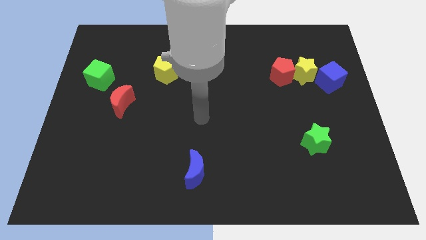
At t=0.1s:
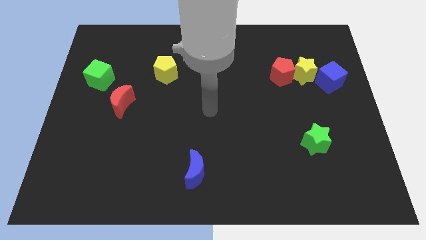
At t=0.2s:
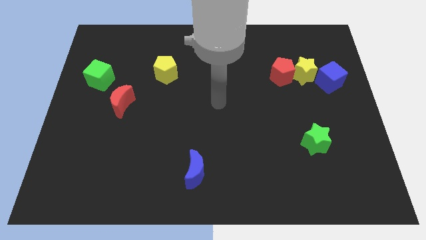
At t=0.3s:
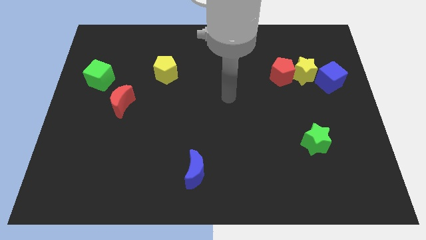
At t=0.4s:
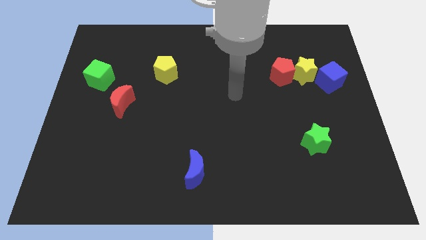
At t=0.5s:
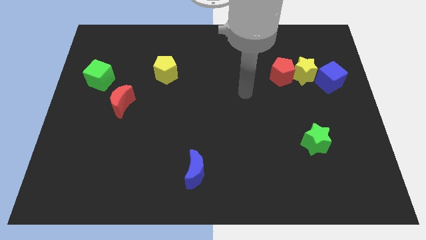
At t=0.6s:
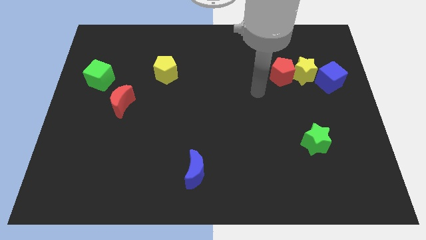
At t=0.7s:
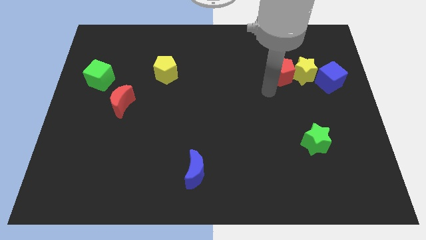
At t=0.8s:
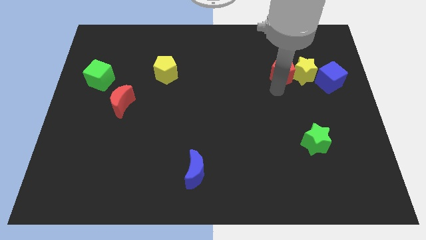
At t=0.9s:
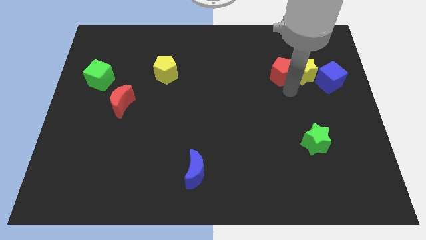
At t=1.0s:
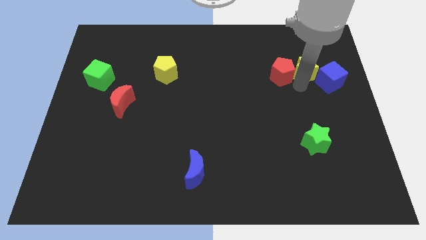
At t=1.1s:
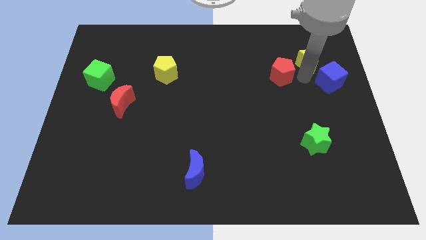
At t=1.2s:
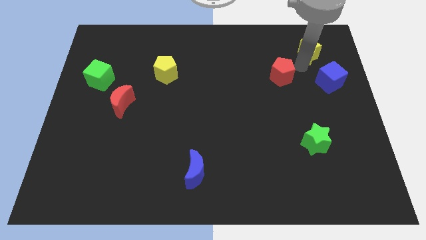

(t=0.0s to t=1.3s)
separate the red pentagon from the yellow star

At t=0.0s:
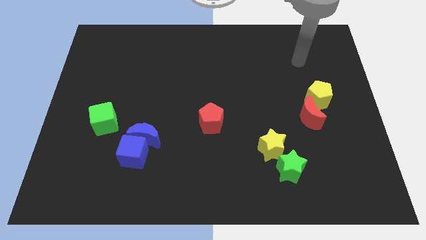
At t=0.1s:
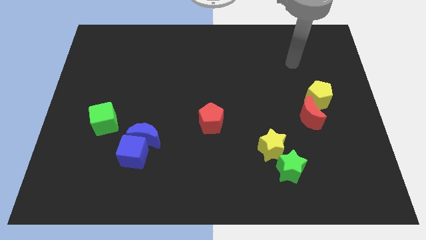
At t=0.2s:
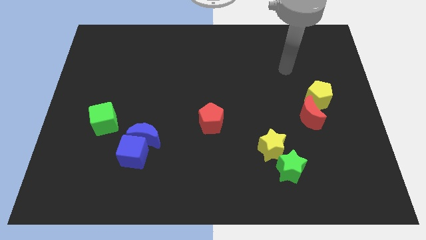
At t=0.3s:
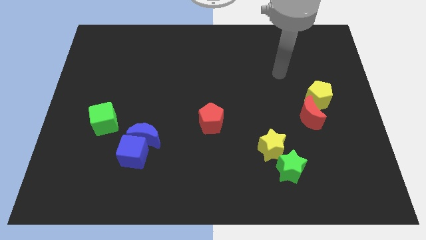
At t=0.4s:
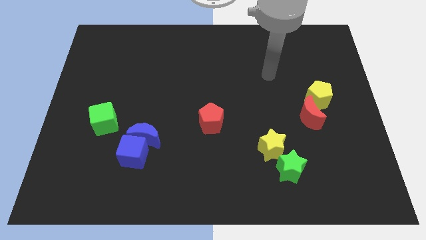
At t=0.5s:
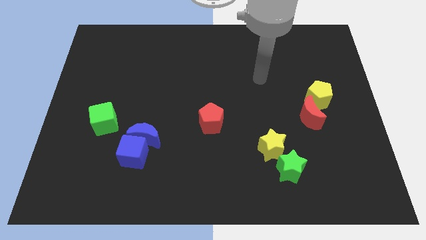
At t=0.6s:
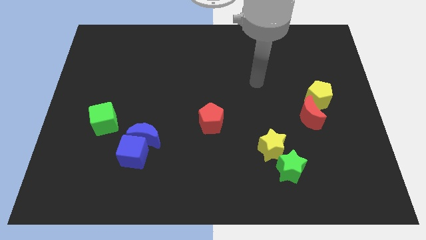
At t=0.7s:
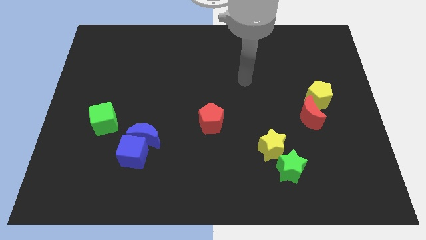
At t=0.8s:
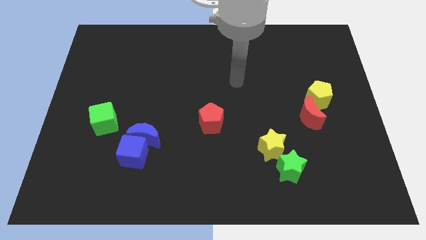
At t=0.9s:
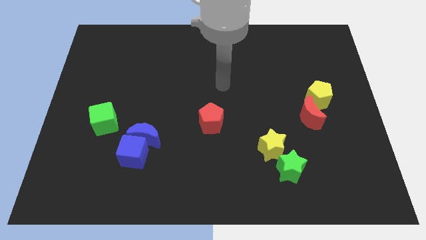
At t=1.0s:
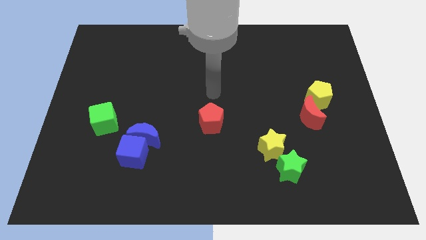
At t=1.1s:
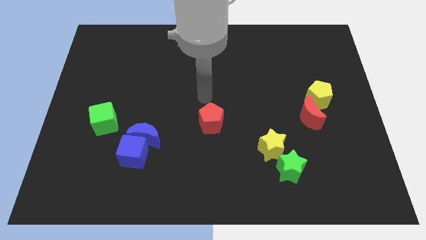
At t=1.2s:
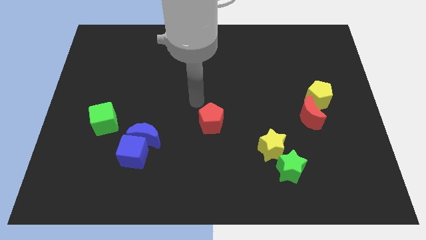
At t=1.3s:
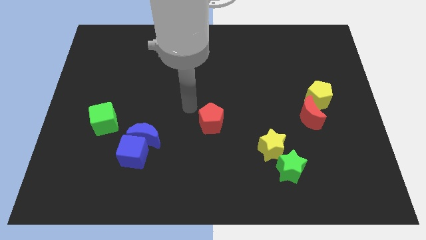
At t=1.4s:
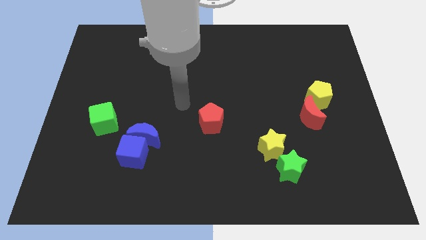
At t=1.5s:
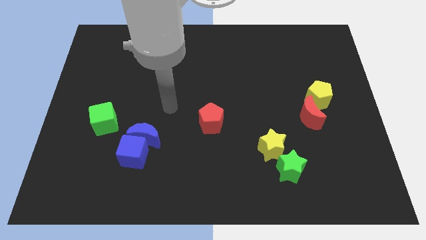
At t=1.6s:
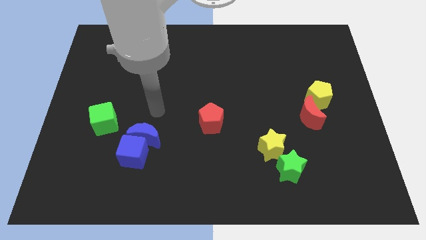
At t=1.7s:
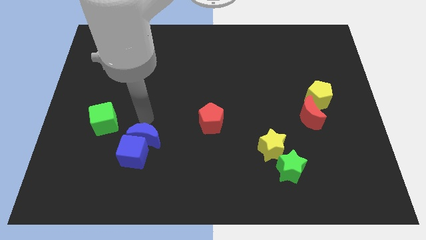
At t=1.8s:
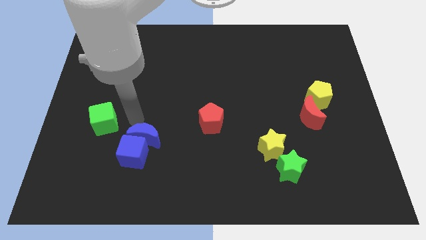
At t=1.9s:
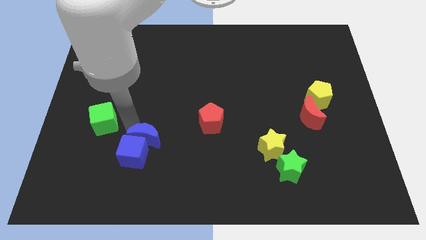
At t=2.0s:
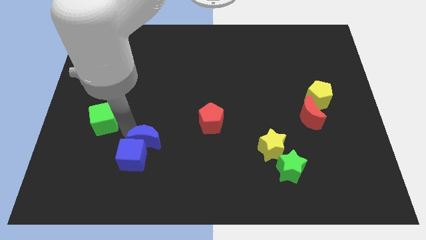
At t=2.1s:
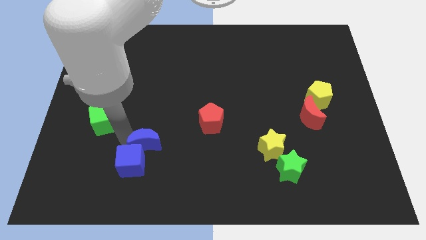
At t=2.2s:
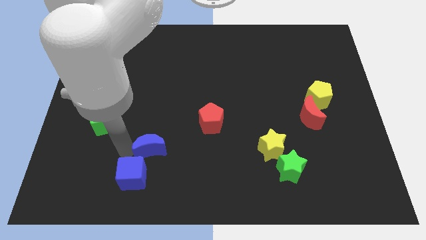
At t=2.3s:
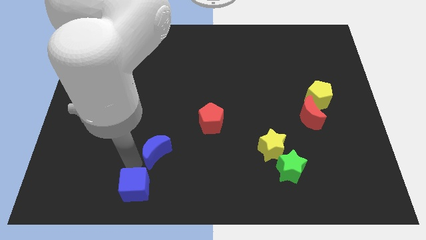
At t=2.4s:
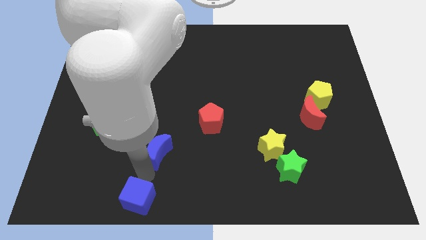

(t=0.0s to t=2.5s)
pull the blue moon apart from the blue cube

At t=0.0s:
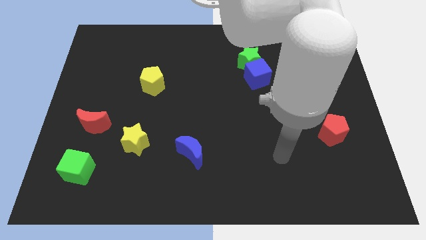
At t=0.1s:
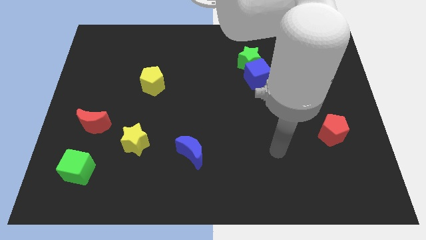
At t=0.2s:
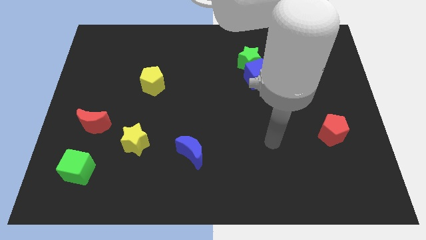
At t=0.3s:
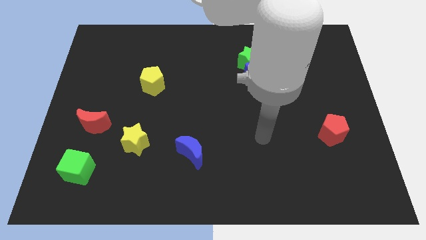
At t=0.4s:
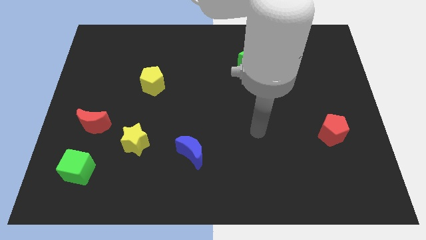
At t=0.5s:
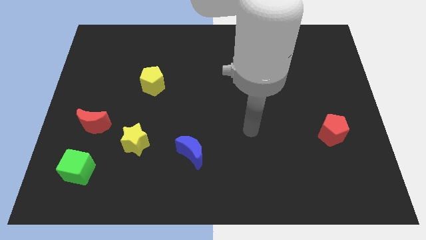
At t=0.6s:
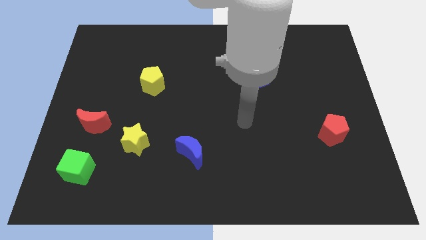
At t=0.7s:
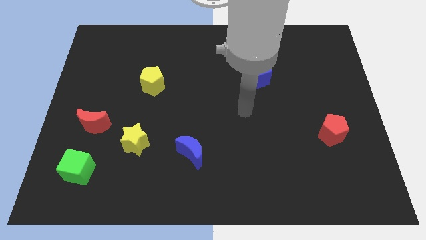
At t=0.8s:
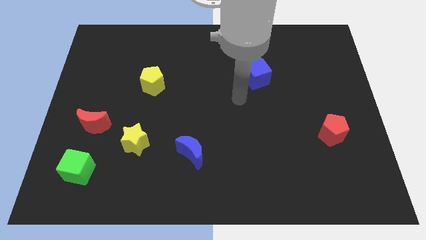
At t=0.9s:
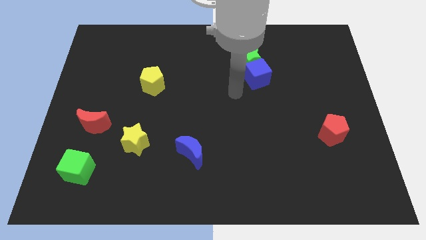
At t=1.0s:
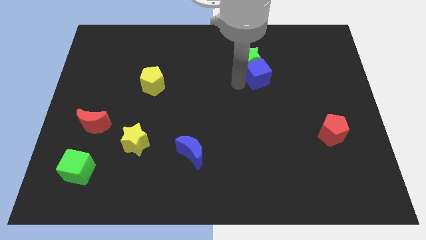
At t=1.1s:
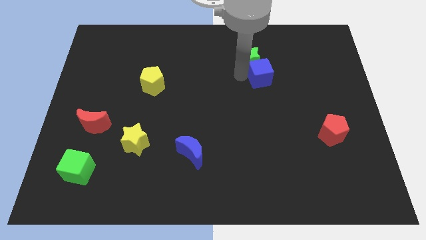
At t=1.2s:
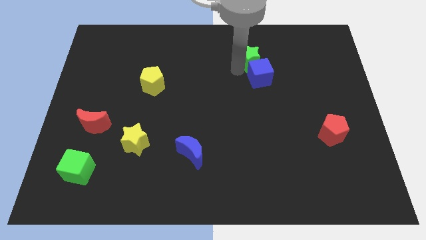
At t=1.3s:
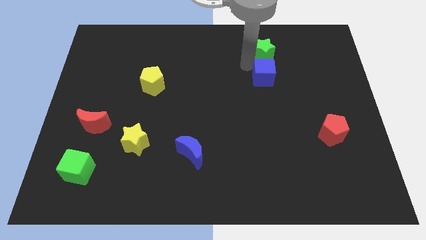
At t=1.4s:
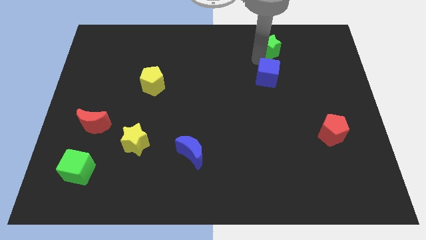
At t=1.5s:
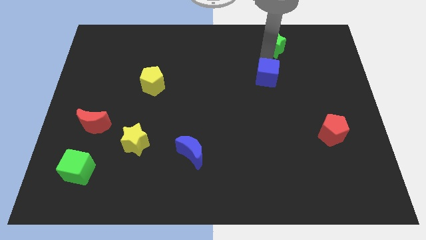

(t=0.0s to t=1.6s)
pull the blue cube apart from the green star

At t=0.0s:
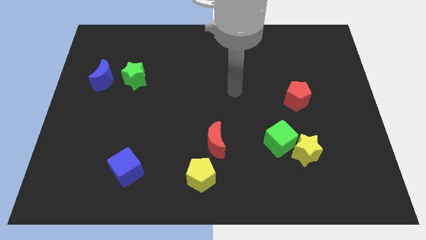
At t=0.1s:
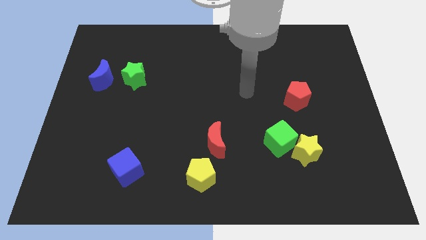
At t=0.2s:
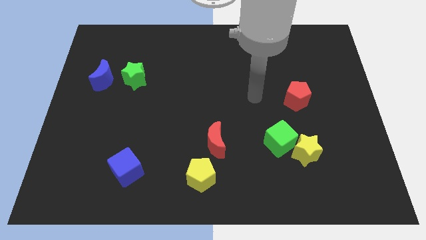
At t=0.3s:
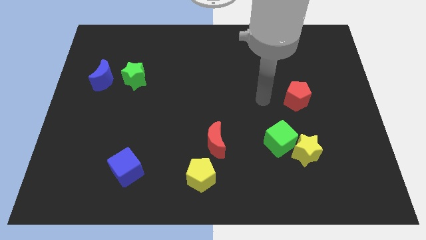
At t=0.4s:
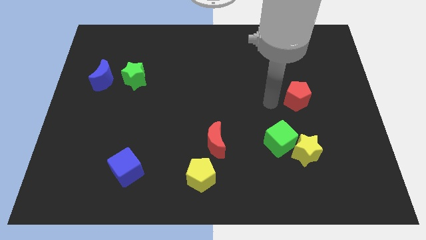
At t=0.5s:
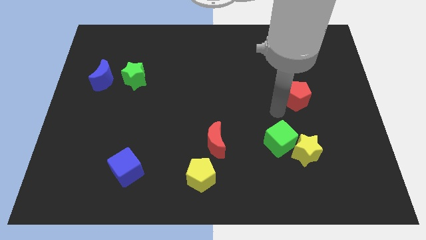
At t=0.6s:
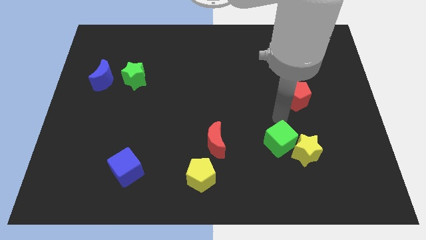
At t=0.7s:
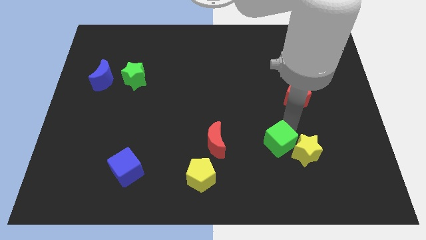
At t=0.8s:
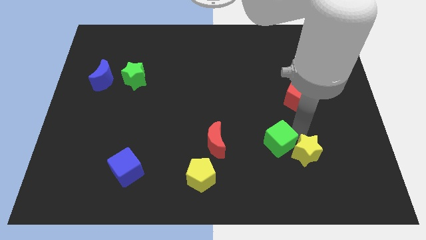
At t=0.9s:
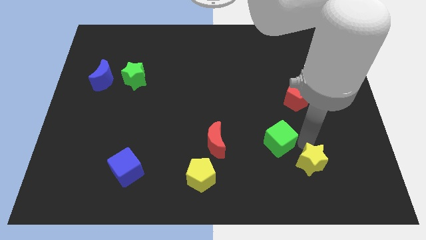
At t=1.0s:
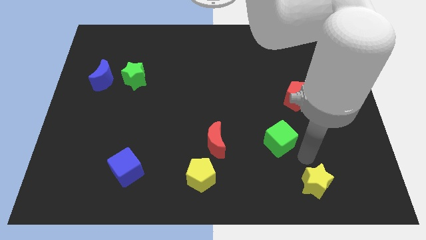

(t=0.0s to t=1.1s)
separate the green cube from the yellow star

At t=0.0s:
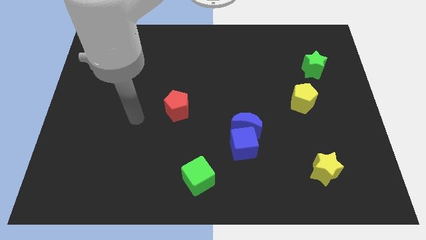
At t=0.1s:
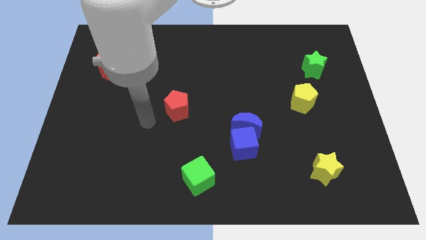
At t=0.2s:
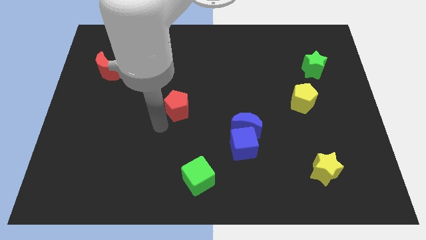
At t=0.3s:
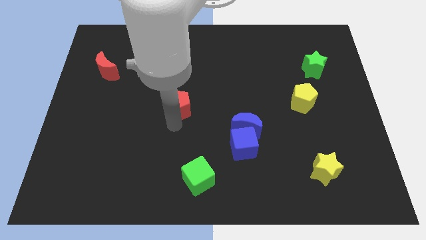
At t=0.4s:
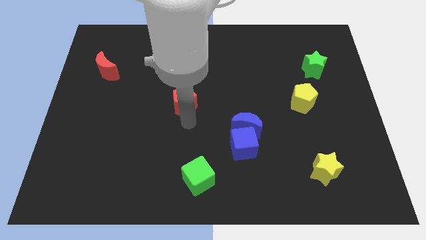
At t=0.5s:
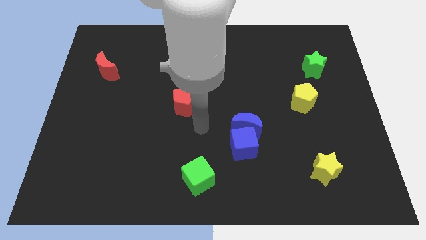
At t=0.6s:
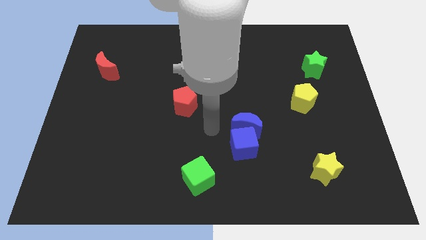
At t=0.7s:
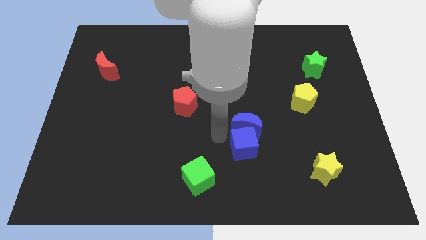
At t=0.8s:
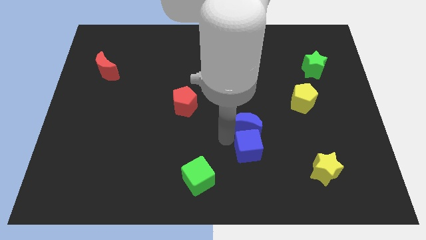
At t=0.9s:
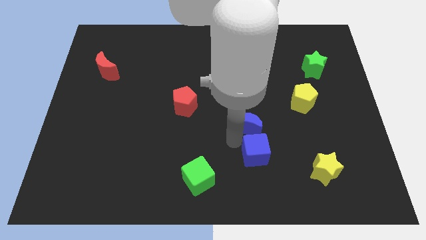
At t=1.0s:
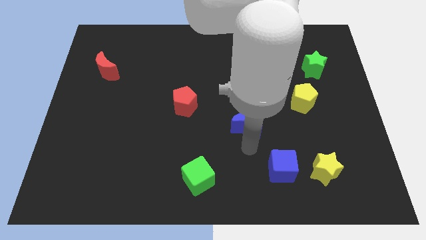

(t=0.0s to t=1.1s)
separate the blue moon from the blue cube

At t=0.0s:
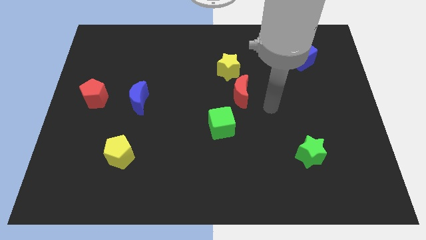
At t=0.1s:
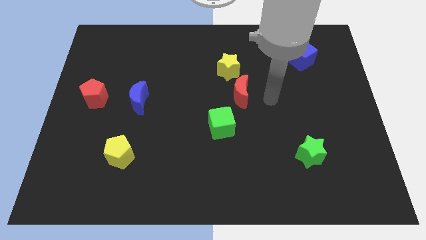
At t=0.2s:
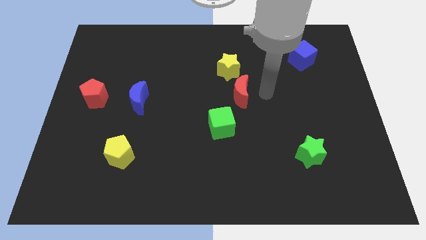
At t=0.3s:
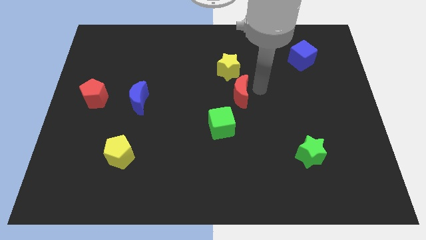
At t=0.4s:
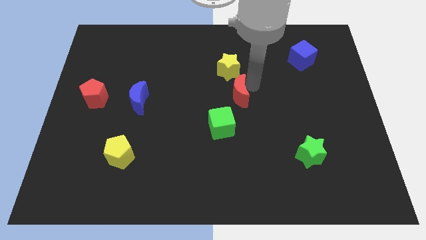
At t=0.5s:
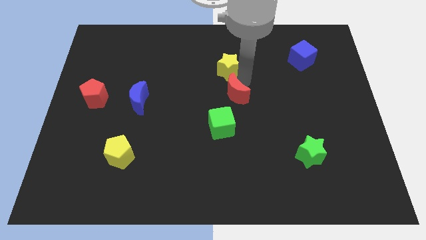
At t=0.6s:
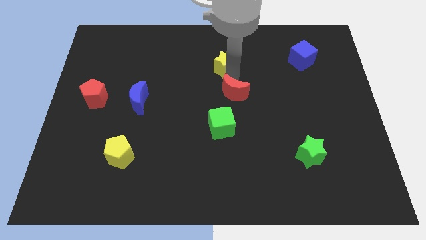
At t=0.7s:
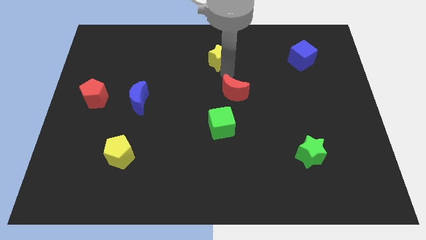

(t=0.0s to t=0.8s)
move the red moon away from the yellow star

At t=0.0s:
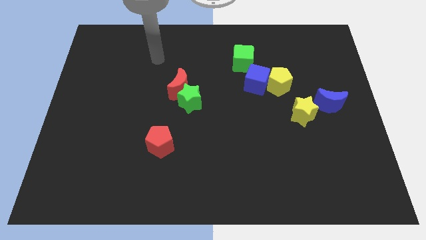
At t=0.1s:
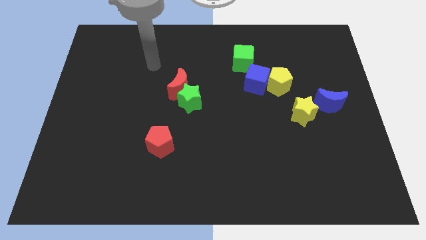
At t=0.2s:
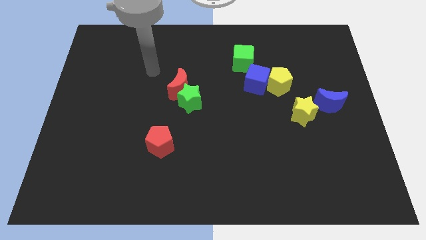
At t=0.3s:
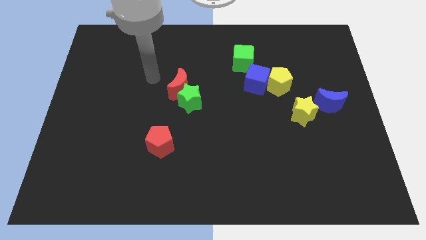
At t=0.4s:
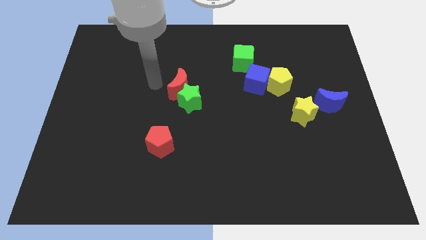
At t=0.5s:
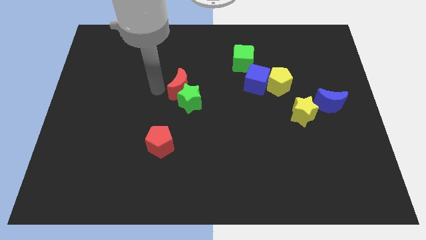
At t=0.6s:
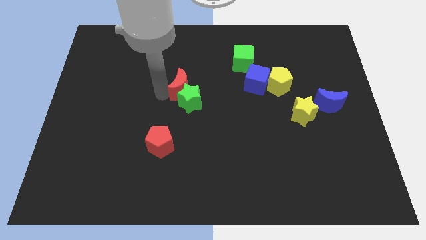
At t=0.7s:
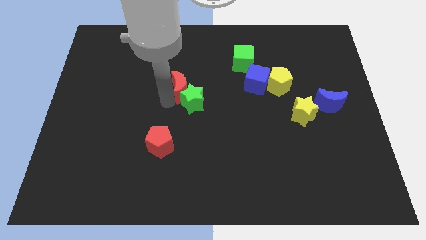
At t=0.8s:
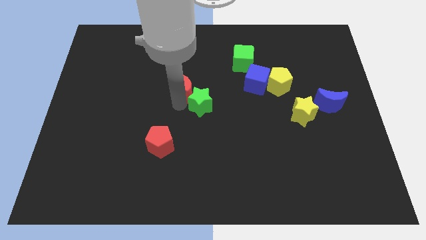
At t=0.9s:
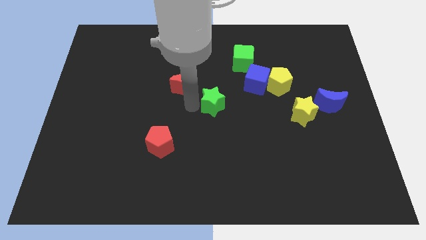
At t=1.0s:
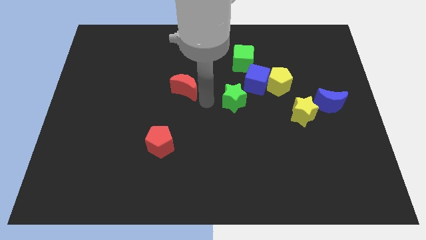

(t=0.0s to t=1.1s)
pull the red moon apart from the green star
